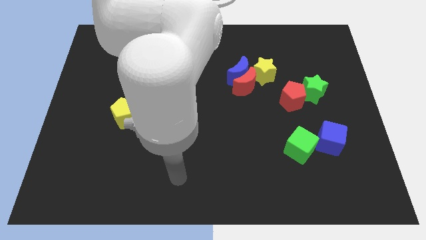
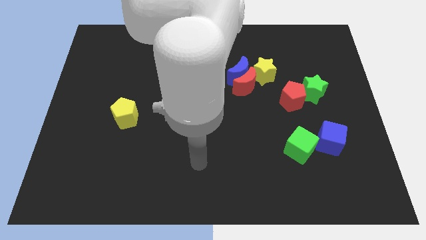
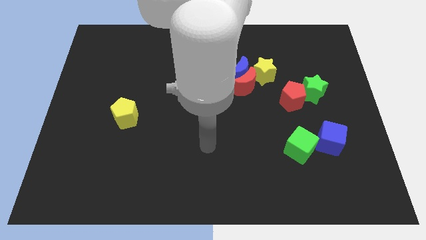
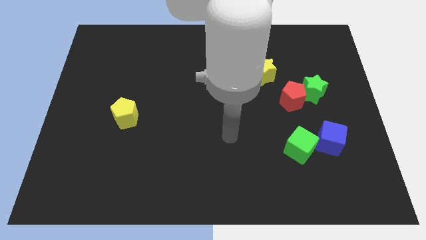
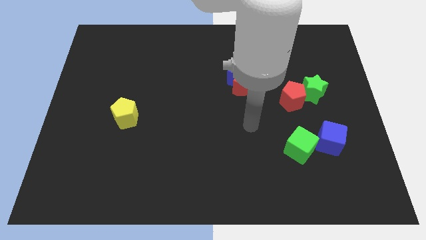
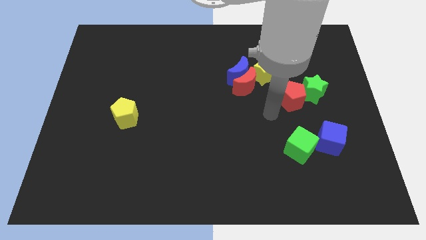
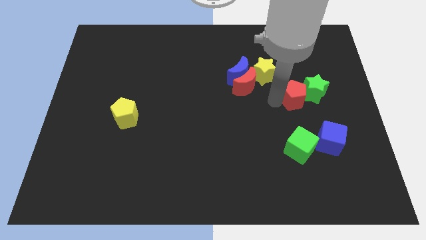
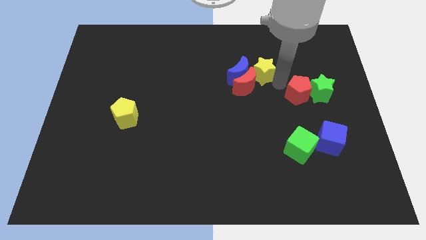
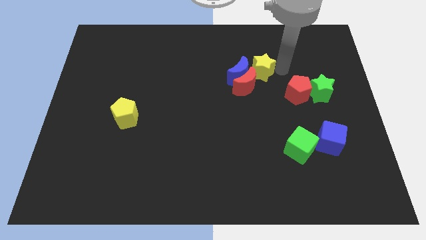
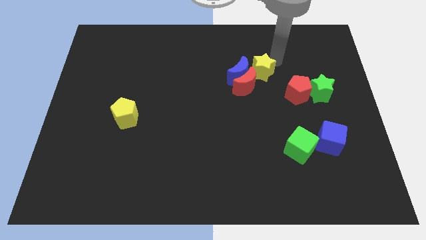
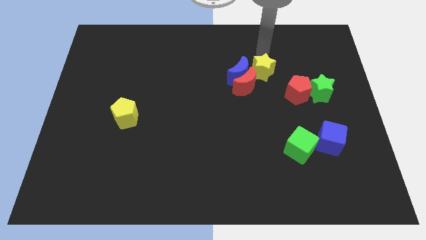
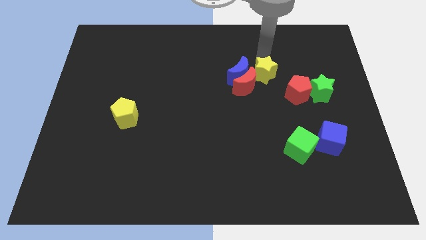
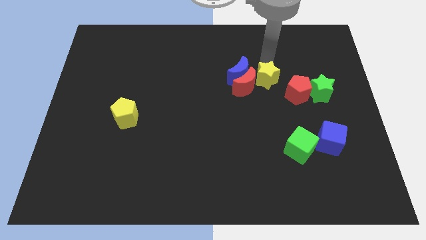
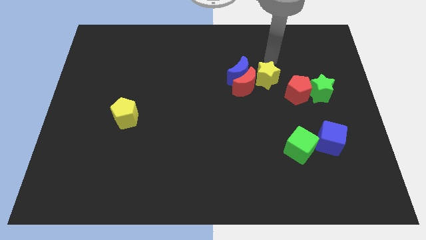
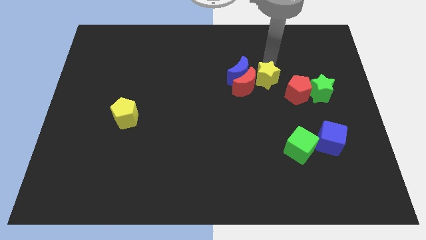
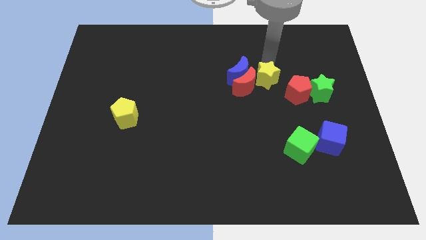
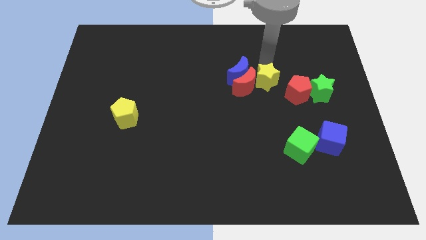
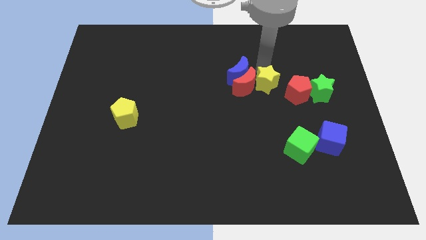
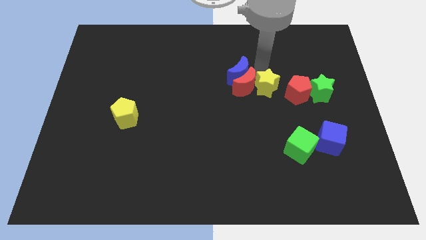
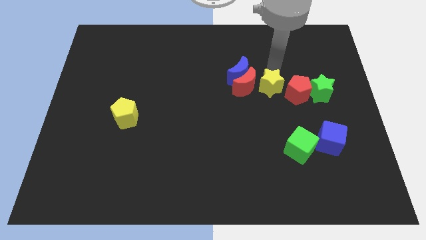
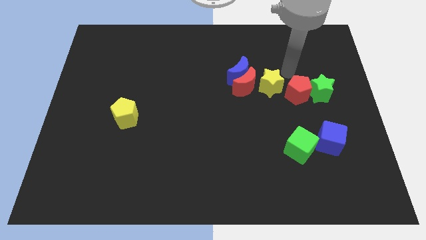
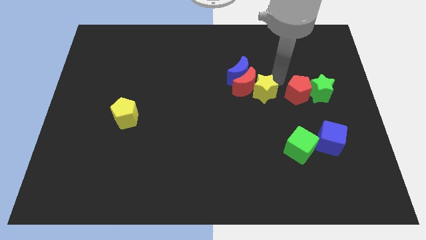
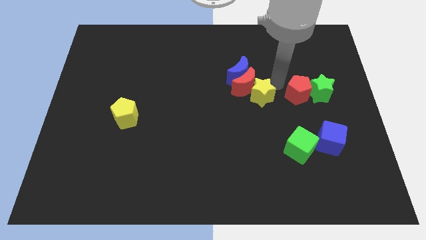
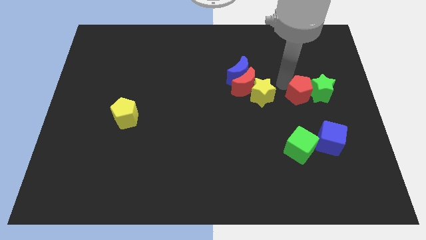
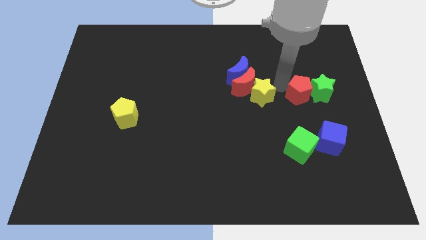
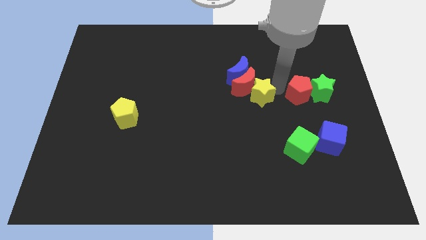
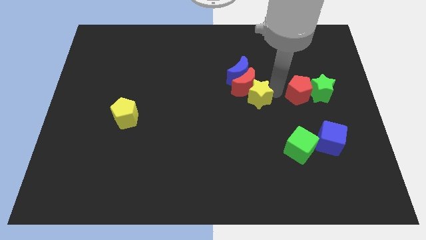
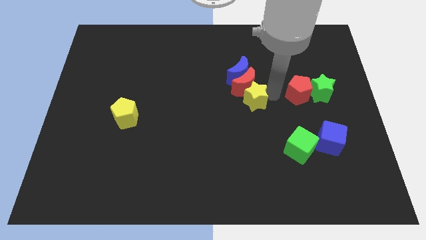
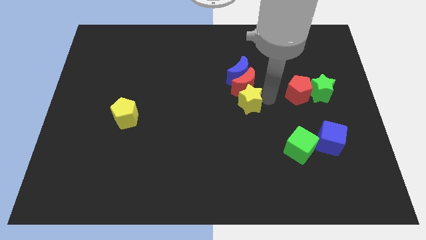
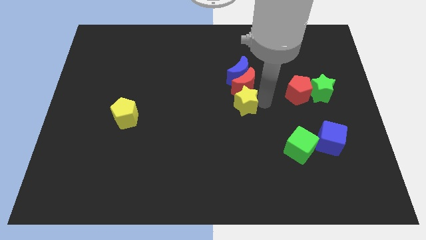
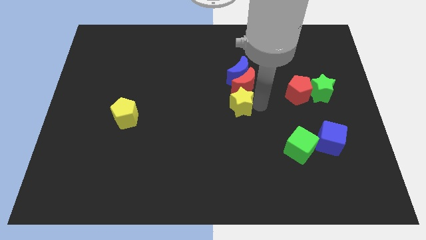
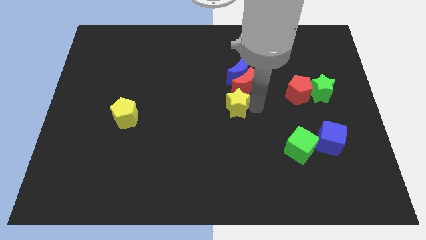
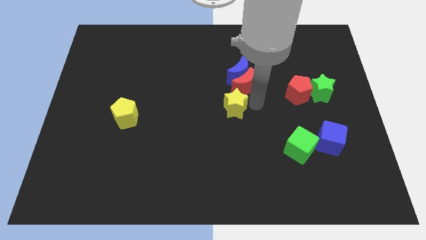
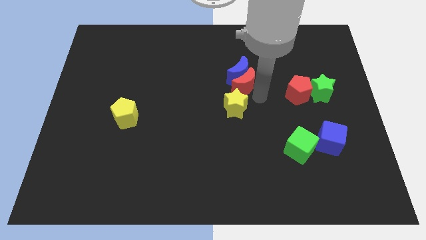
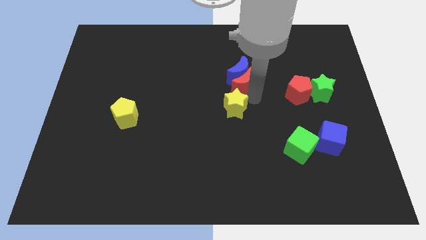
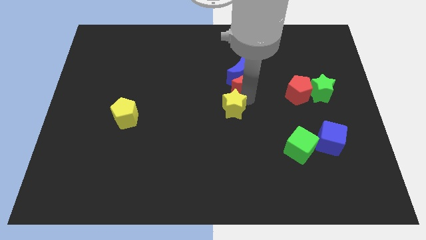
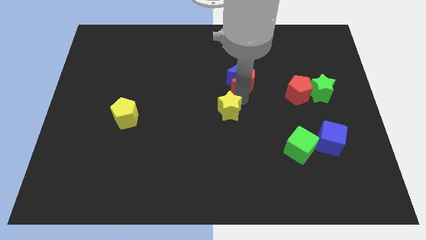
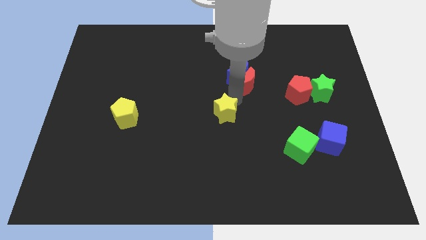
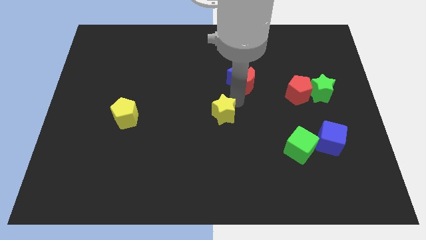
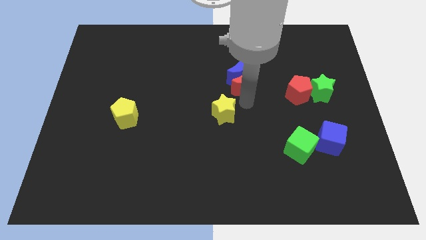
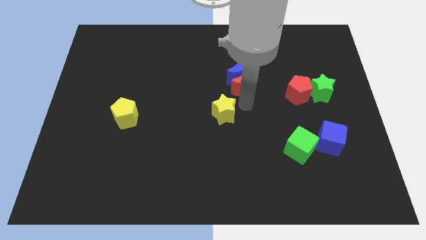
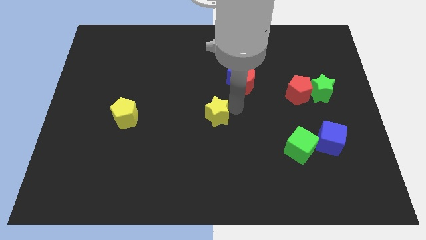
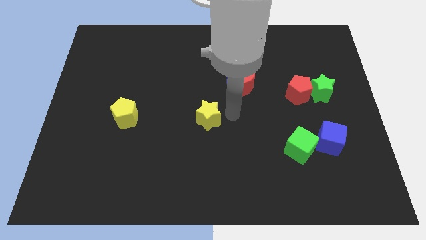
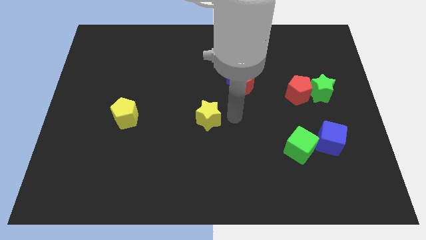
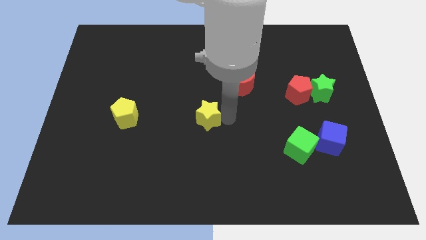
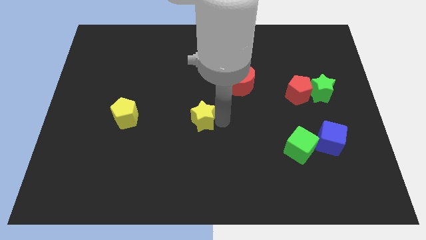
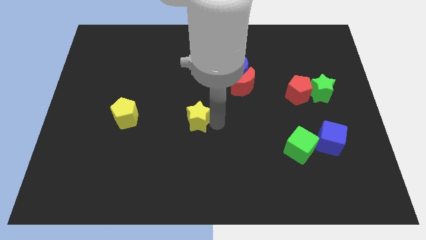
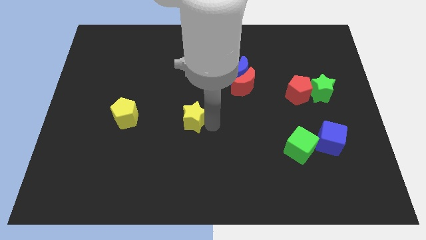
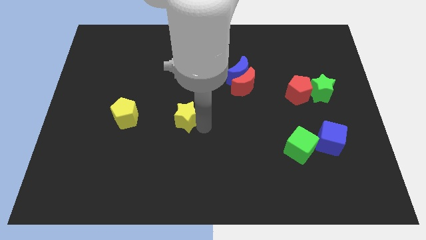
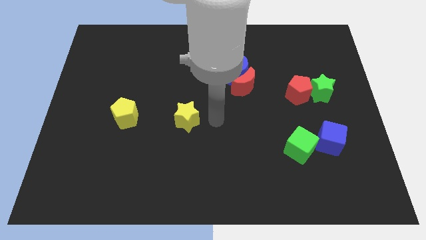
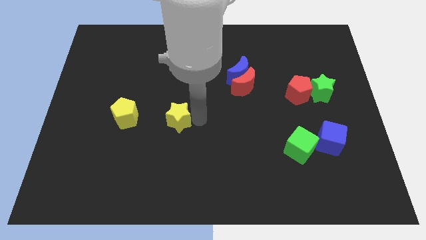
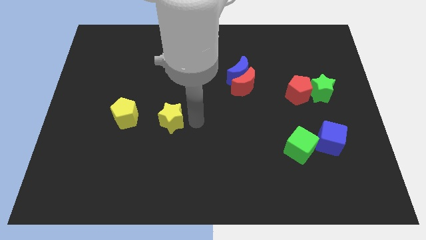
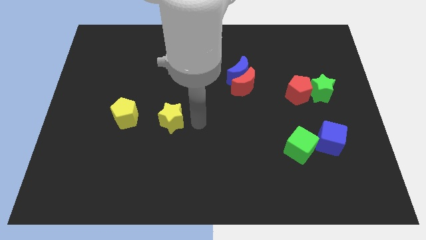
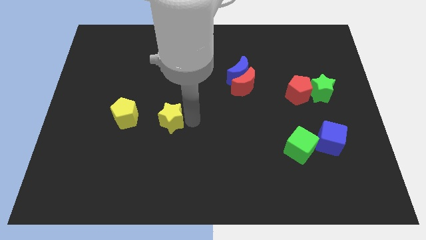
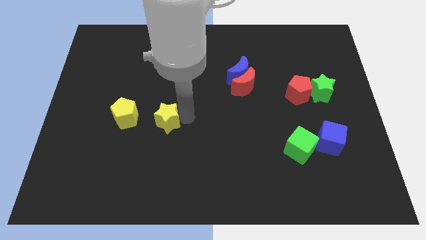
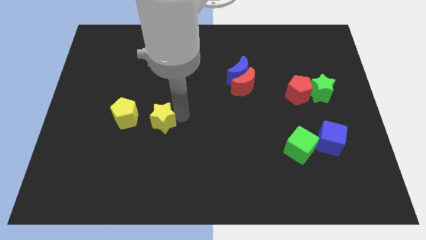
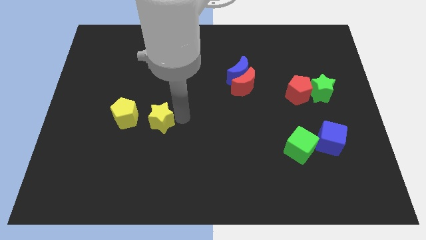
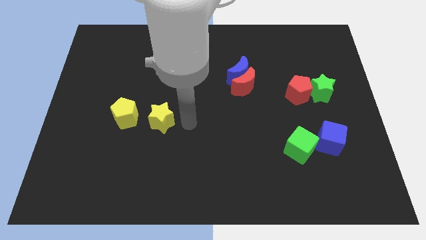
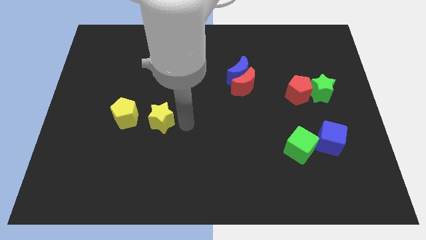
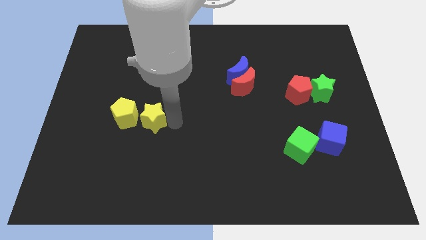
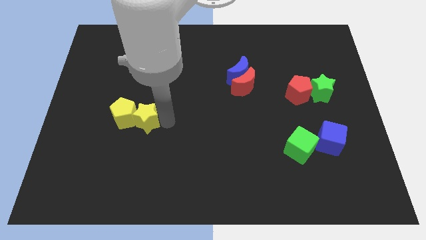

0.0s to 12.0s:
move the yellow star next to the yellow pentagon

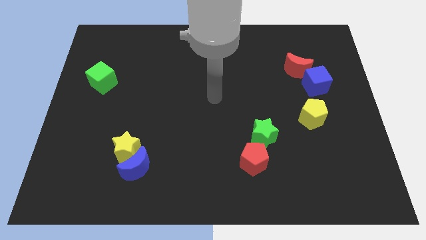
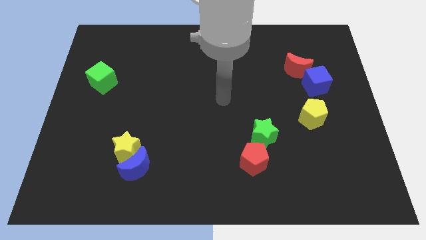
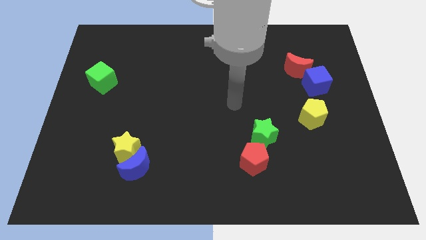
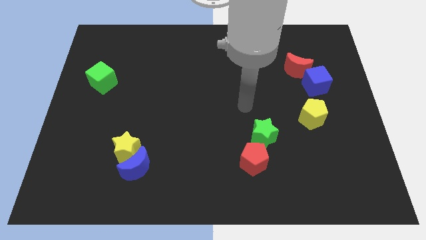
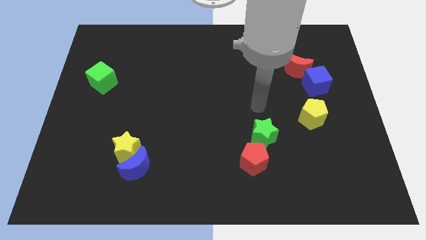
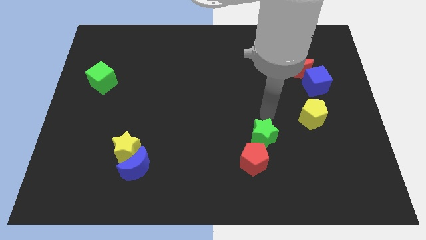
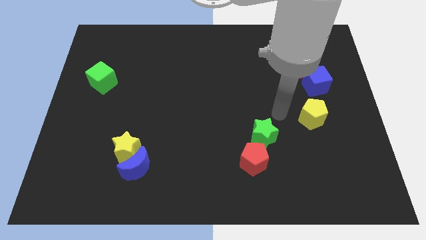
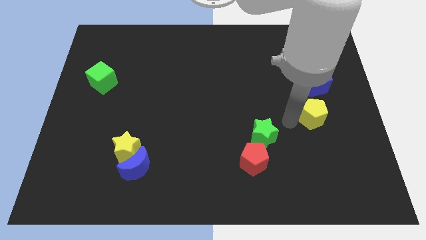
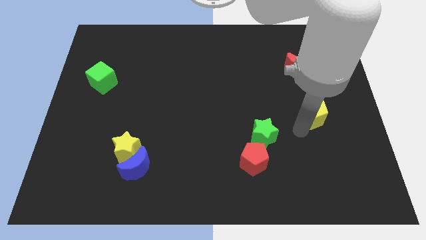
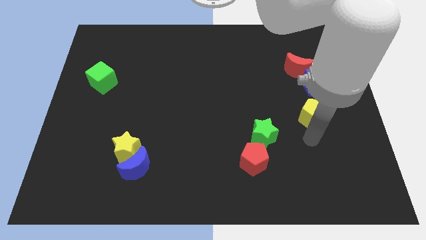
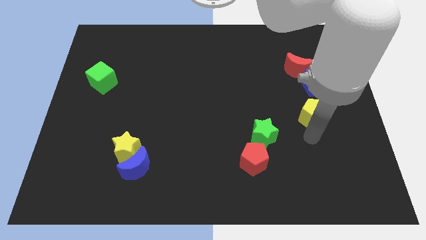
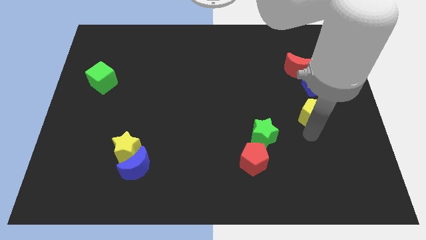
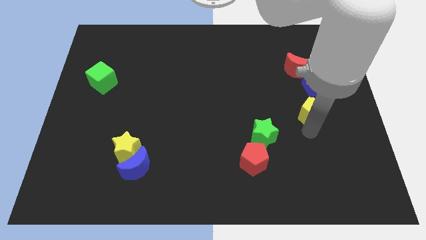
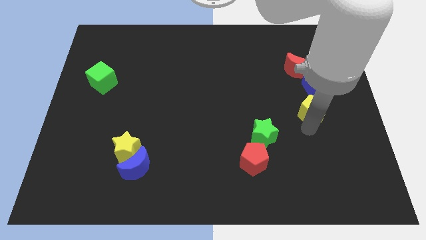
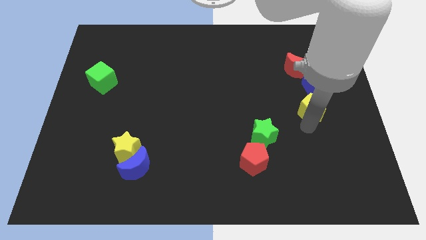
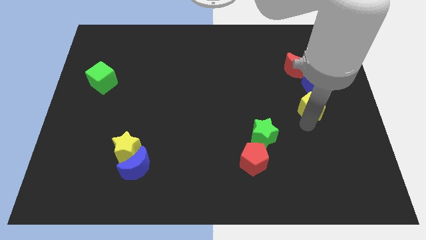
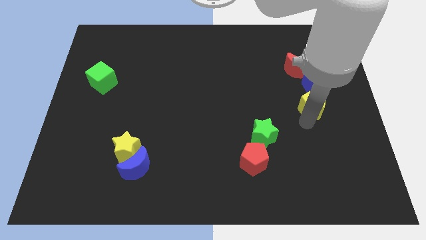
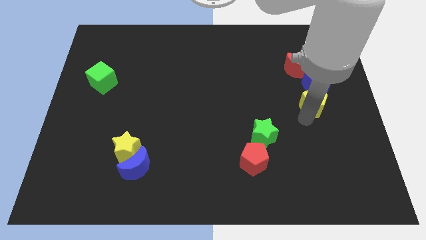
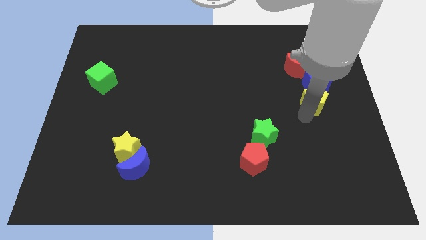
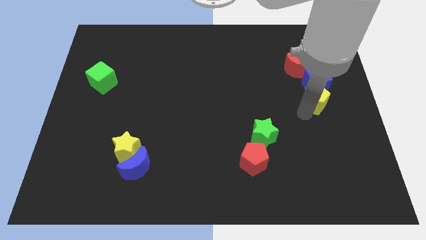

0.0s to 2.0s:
push the yellow pentagon to the blue cube
